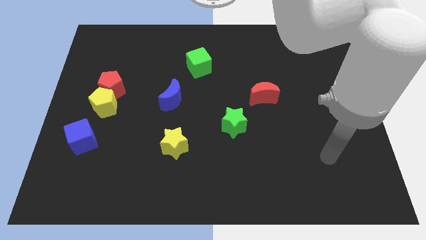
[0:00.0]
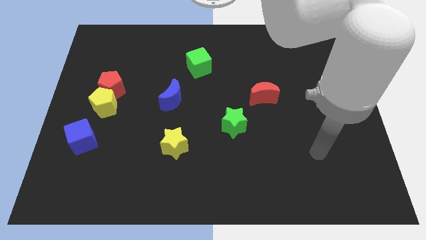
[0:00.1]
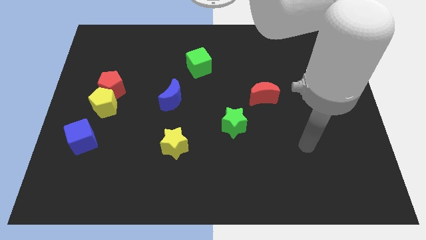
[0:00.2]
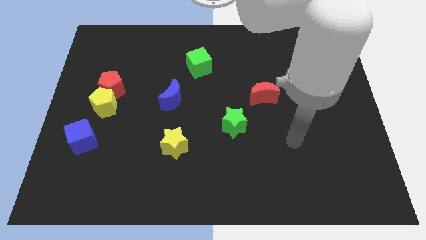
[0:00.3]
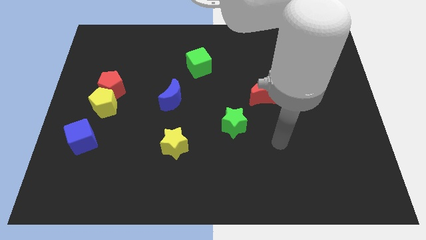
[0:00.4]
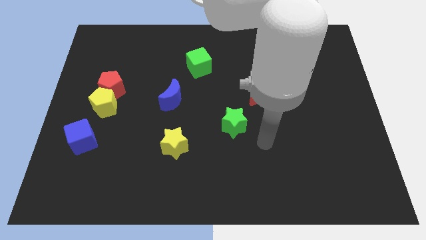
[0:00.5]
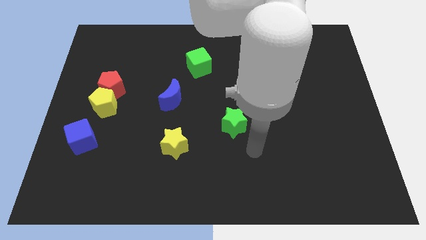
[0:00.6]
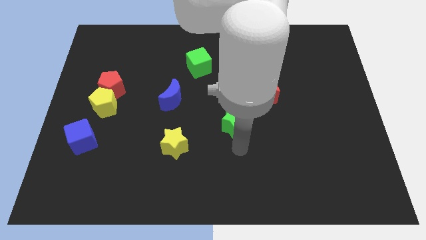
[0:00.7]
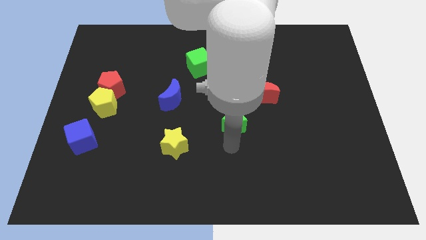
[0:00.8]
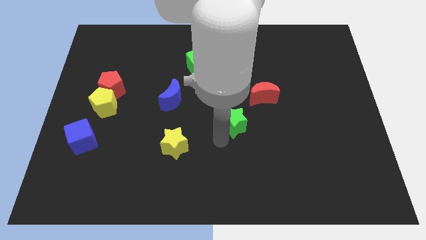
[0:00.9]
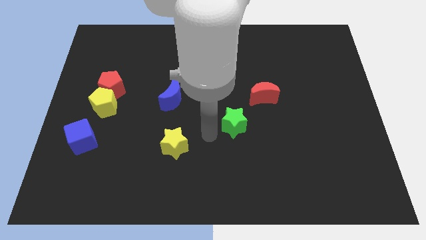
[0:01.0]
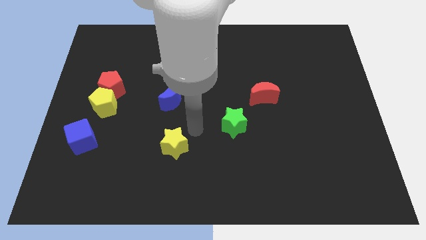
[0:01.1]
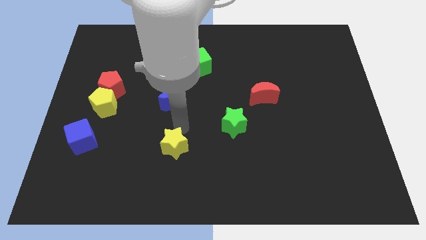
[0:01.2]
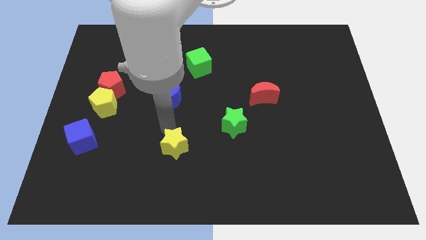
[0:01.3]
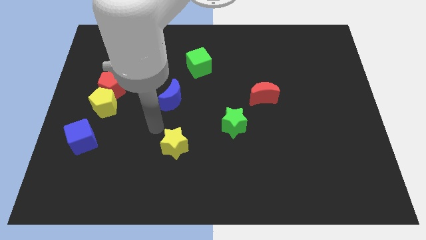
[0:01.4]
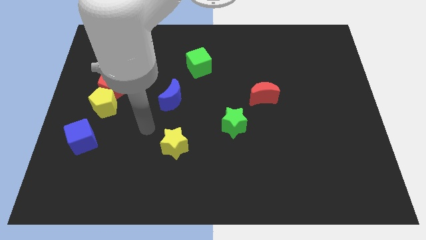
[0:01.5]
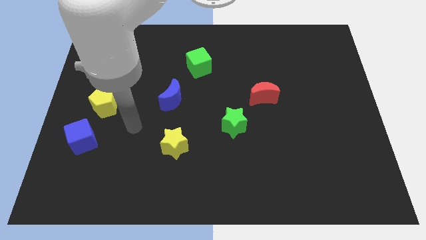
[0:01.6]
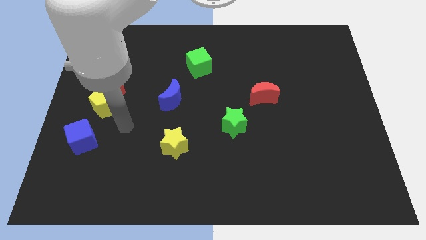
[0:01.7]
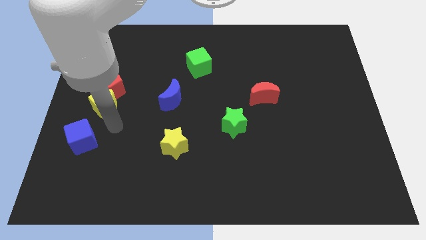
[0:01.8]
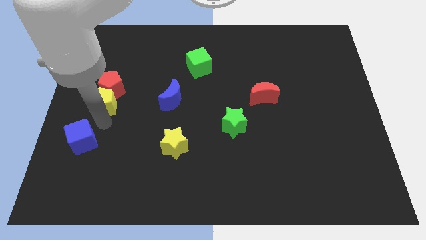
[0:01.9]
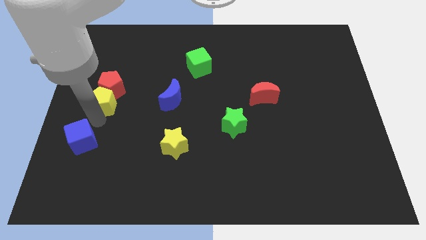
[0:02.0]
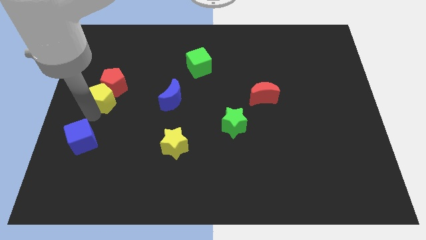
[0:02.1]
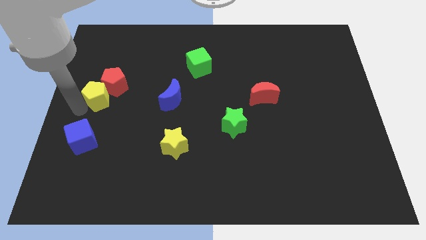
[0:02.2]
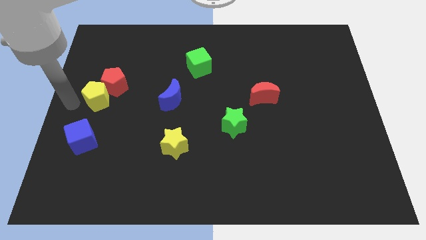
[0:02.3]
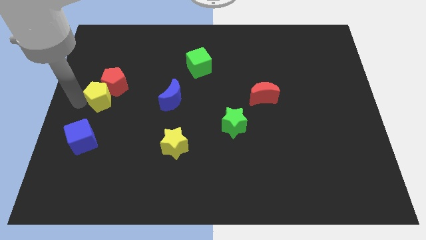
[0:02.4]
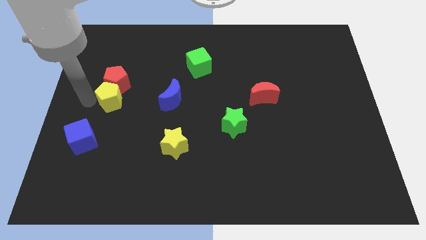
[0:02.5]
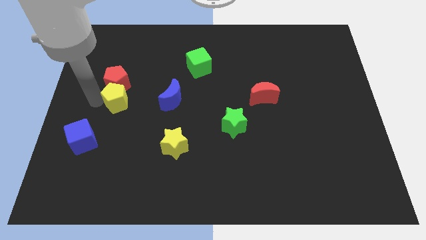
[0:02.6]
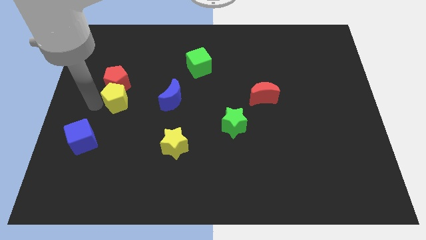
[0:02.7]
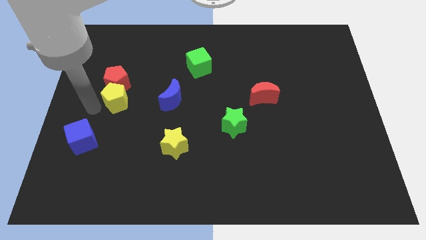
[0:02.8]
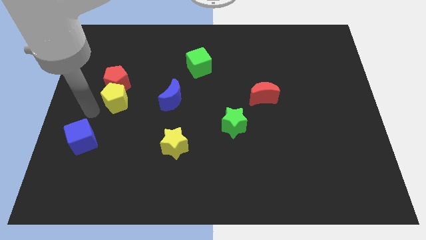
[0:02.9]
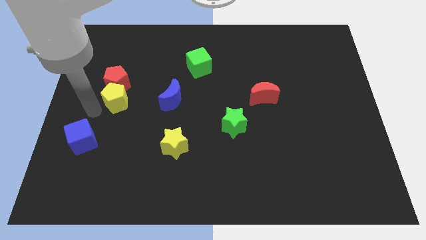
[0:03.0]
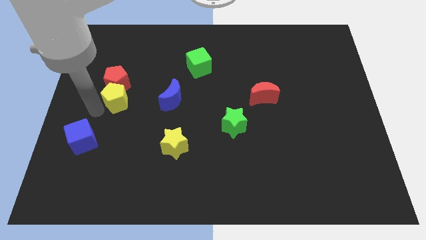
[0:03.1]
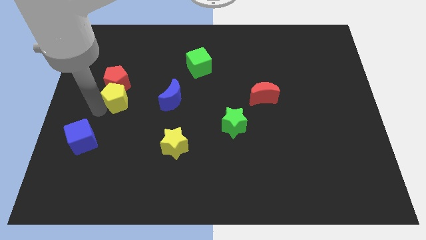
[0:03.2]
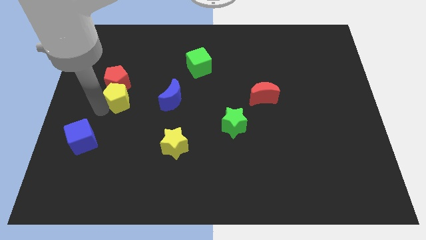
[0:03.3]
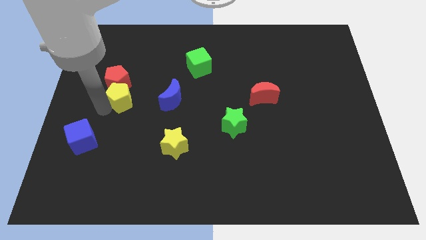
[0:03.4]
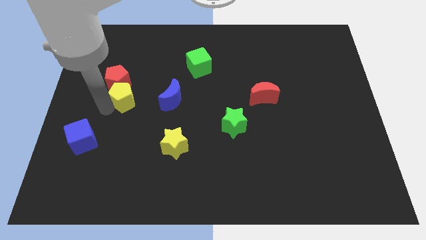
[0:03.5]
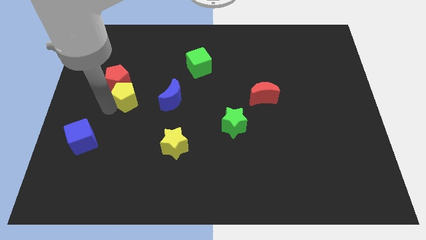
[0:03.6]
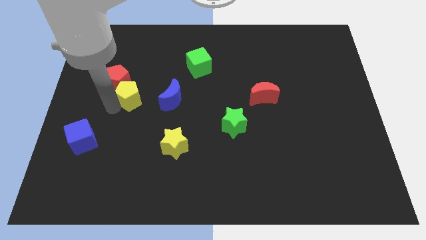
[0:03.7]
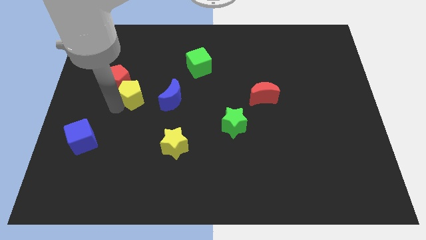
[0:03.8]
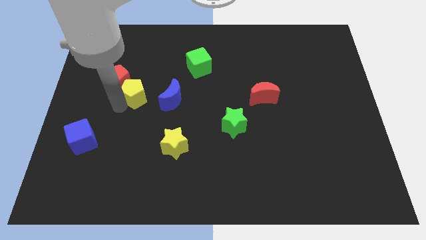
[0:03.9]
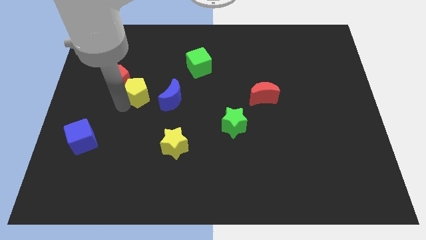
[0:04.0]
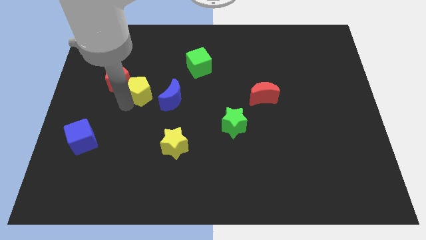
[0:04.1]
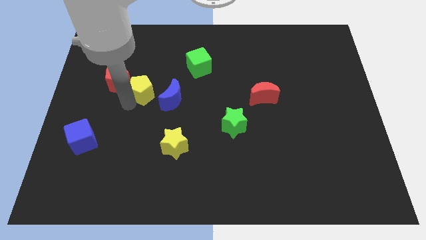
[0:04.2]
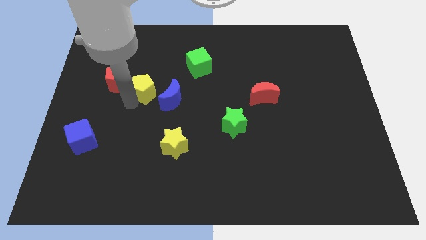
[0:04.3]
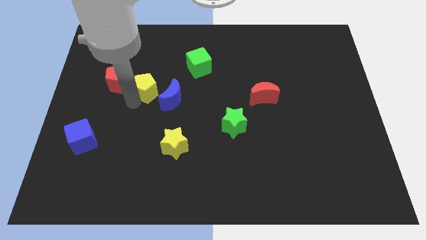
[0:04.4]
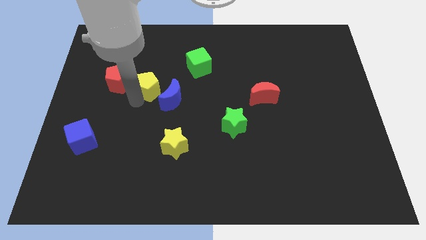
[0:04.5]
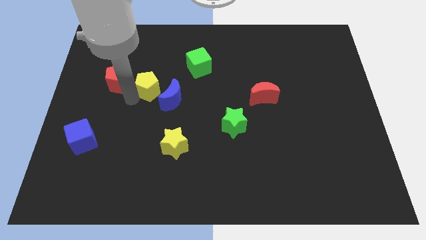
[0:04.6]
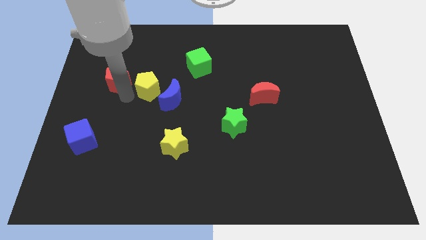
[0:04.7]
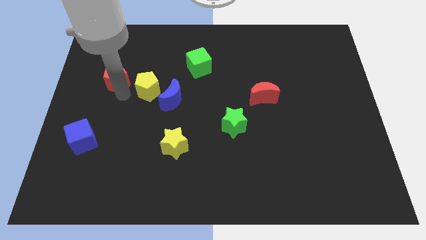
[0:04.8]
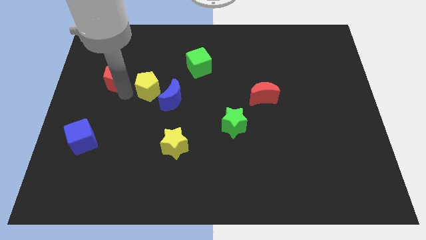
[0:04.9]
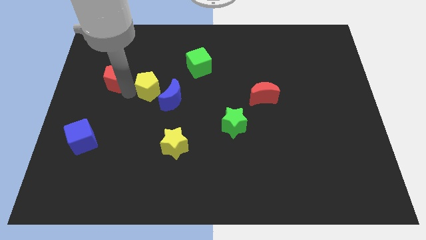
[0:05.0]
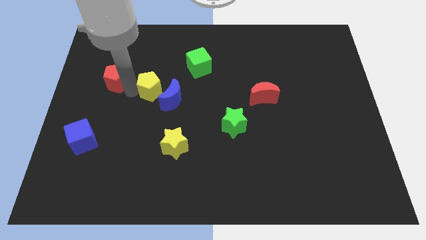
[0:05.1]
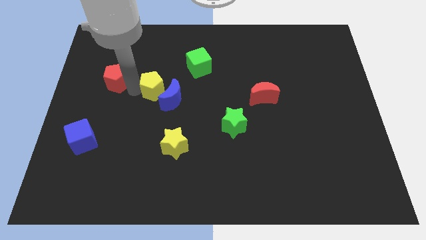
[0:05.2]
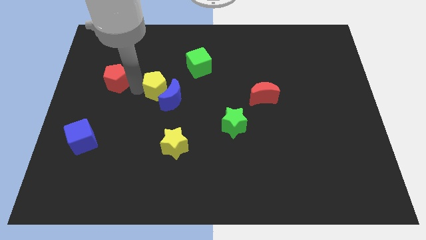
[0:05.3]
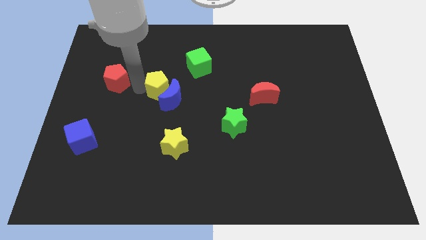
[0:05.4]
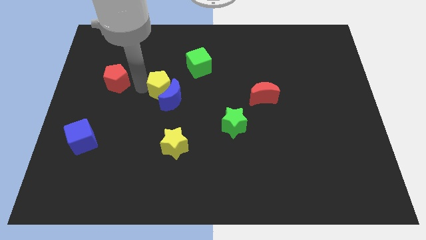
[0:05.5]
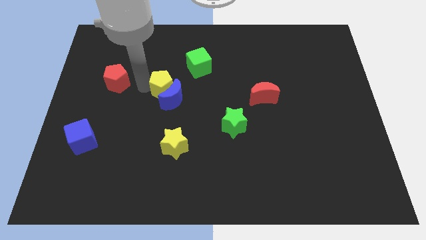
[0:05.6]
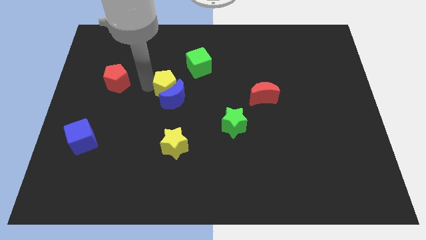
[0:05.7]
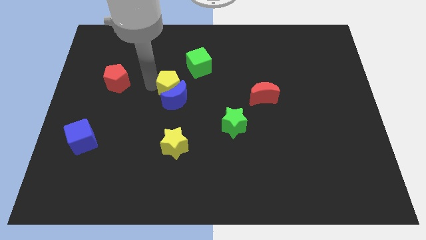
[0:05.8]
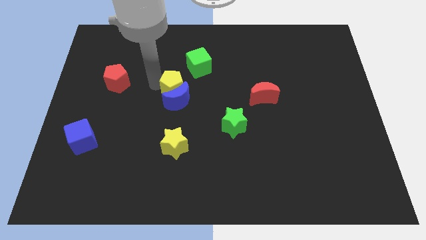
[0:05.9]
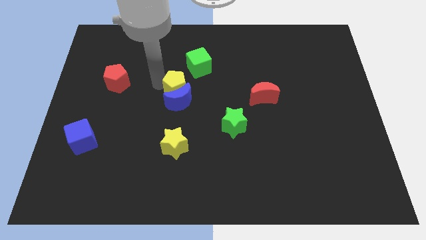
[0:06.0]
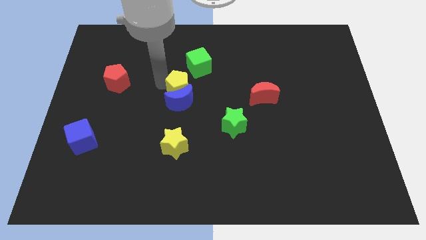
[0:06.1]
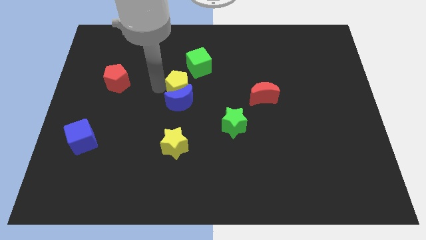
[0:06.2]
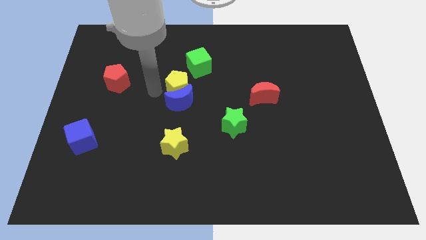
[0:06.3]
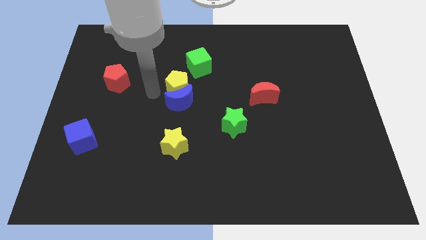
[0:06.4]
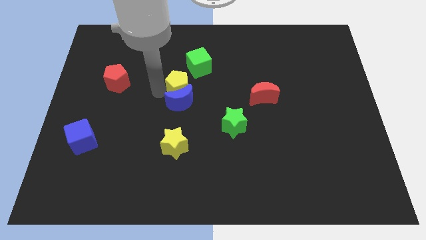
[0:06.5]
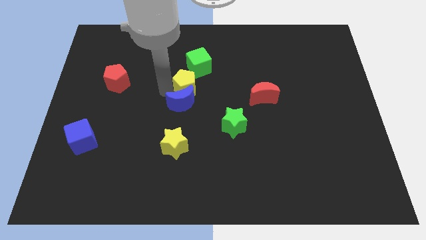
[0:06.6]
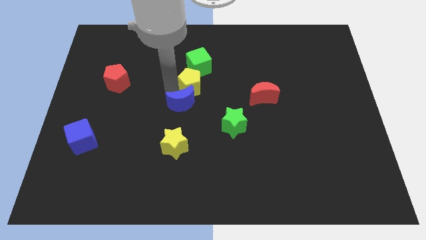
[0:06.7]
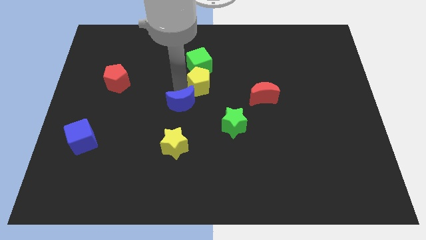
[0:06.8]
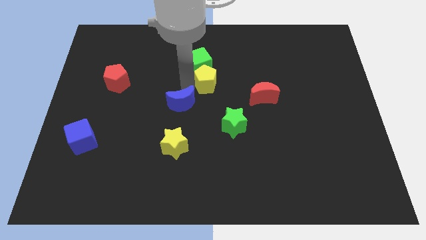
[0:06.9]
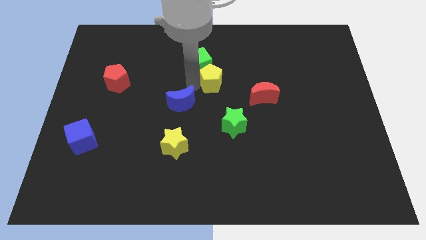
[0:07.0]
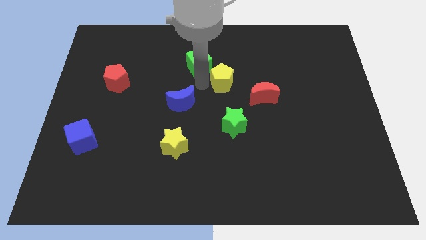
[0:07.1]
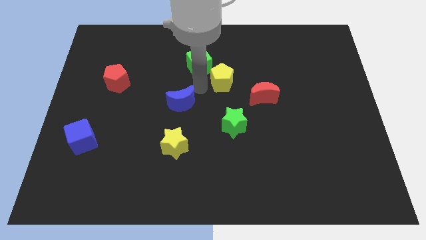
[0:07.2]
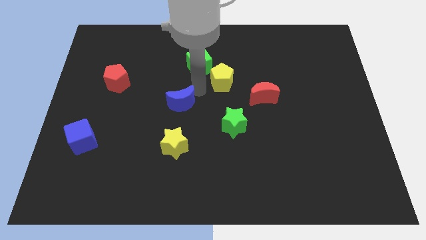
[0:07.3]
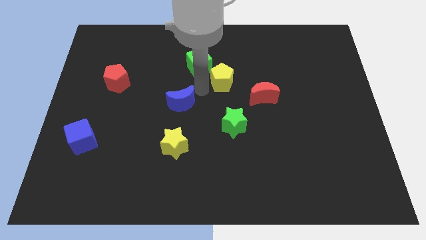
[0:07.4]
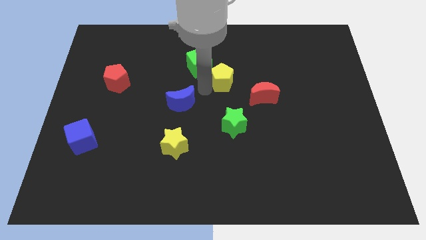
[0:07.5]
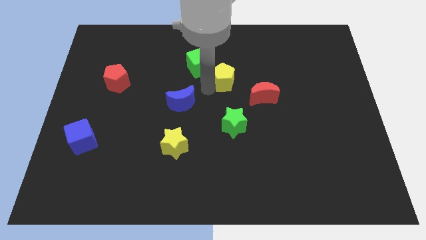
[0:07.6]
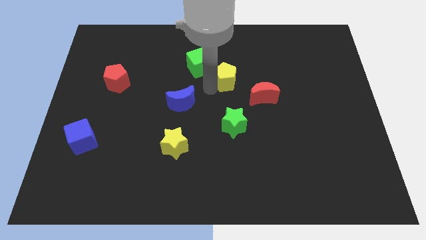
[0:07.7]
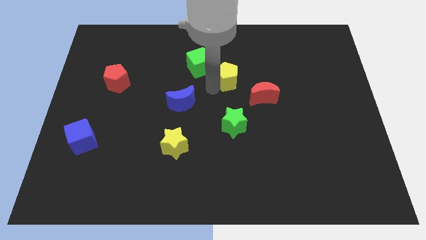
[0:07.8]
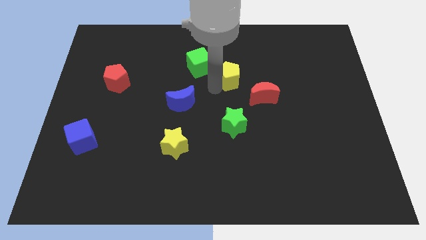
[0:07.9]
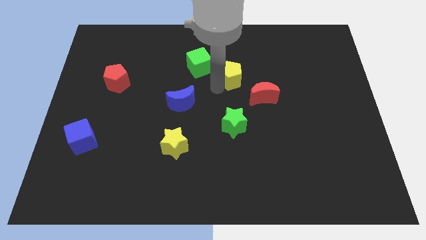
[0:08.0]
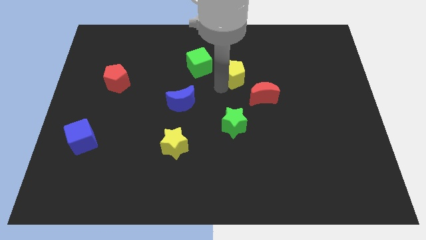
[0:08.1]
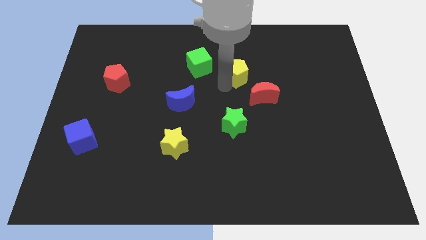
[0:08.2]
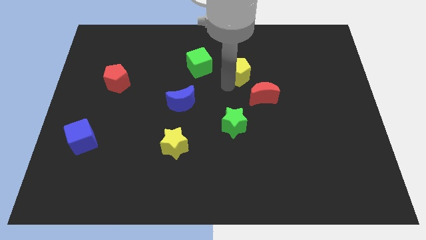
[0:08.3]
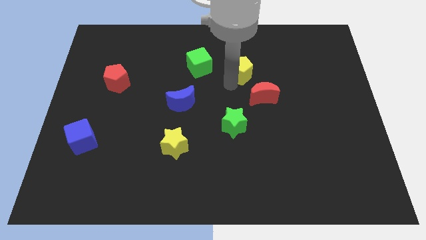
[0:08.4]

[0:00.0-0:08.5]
slide the yellow pentagon above the red moon
